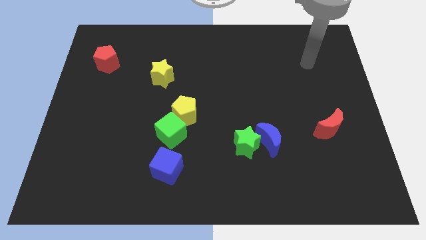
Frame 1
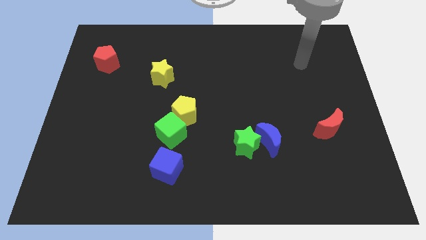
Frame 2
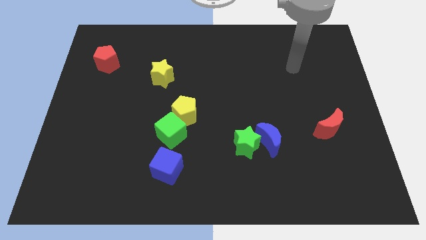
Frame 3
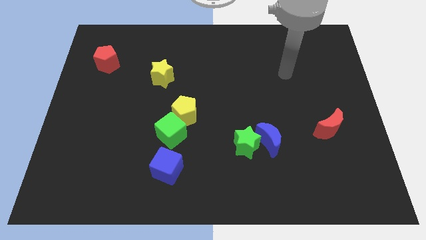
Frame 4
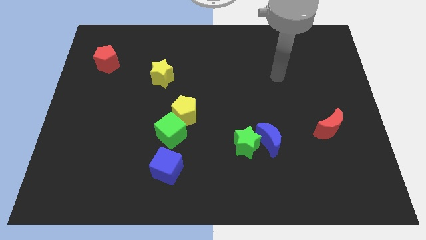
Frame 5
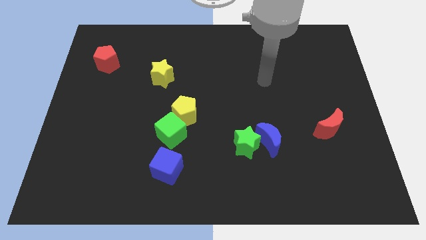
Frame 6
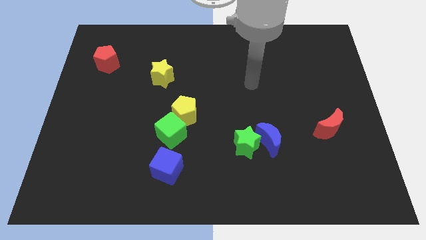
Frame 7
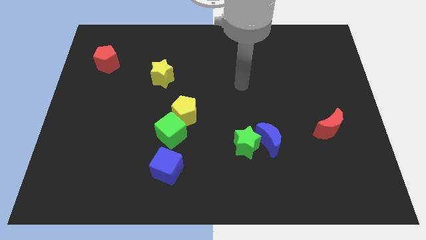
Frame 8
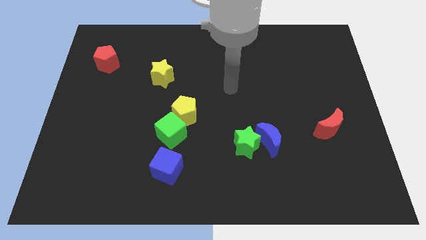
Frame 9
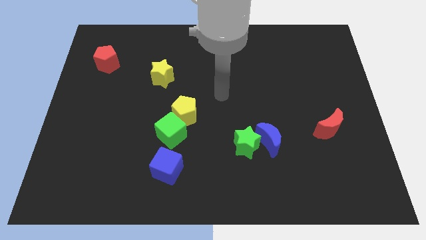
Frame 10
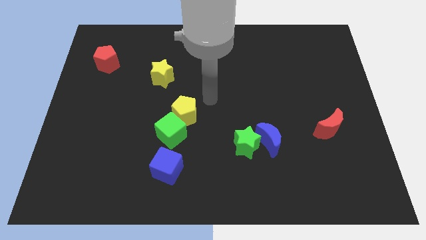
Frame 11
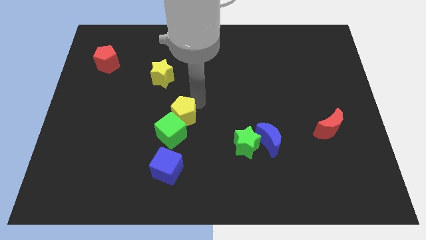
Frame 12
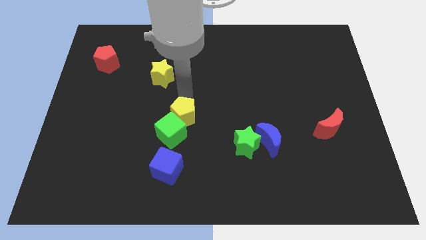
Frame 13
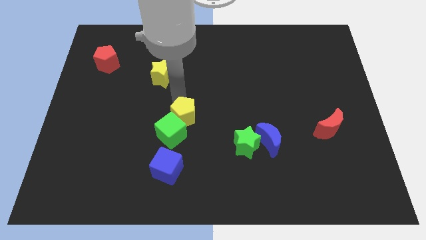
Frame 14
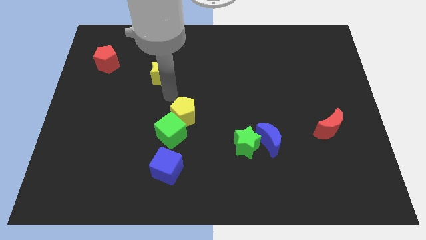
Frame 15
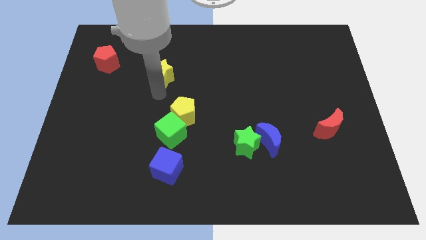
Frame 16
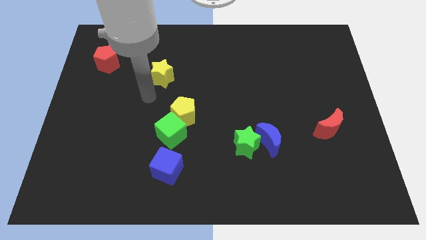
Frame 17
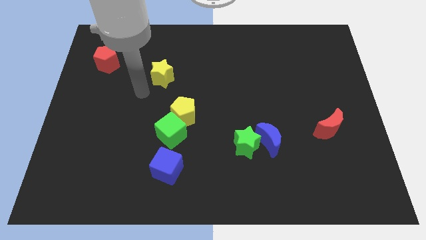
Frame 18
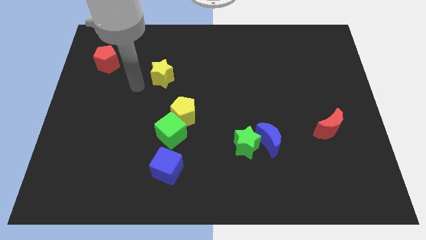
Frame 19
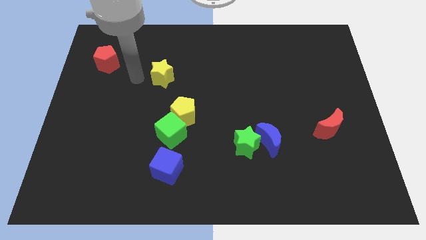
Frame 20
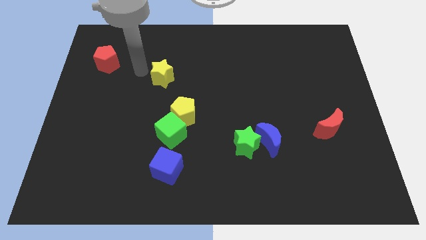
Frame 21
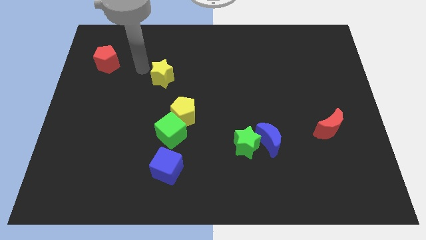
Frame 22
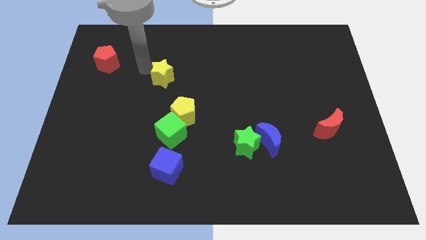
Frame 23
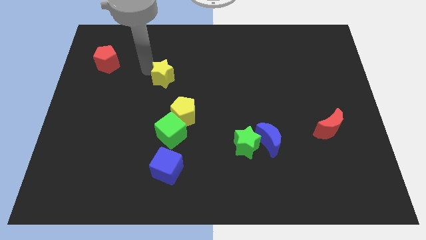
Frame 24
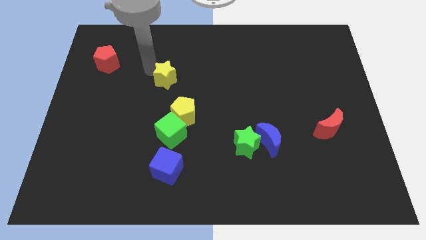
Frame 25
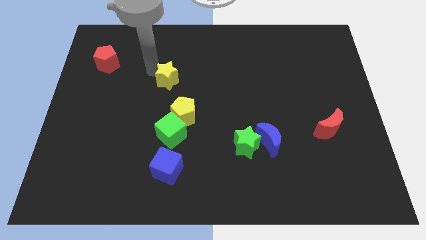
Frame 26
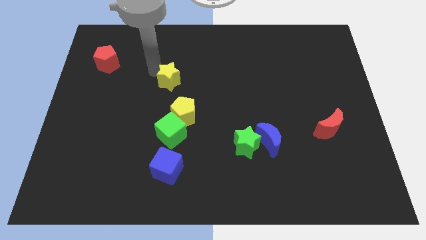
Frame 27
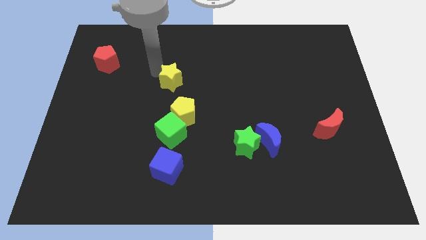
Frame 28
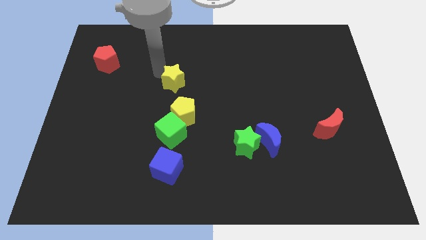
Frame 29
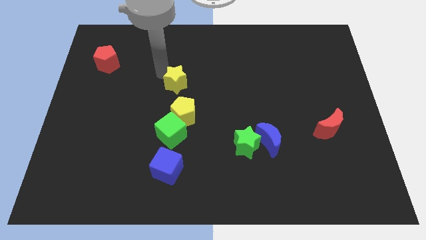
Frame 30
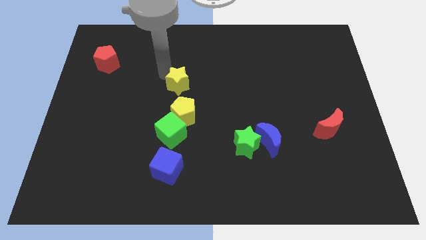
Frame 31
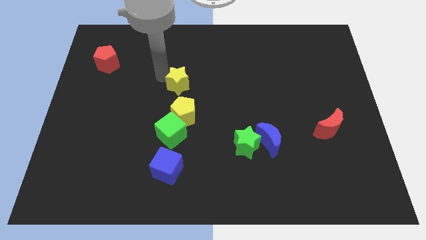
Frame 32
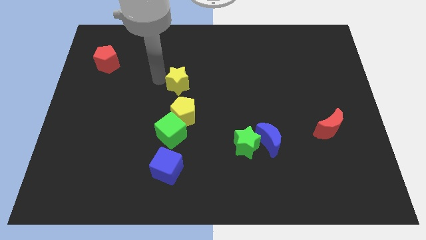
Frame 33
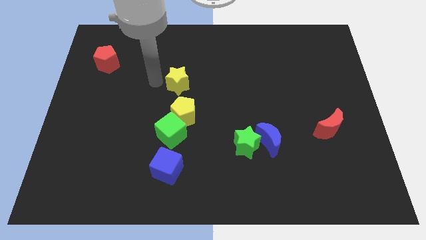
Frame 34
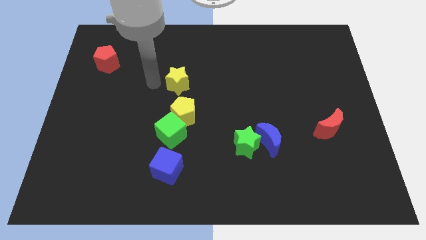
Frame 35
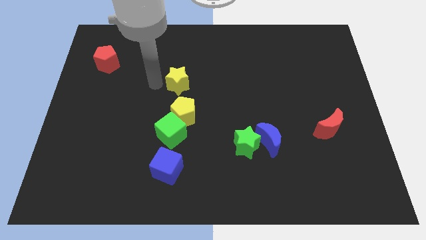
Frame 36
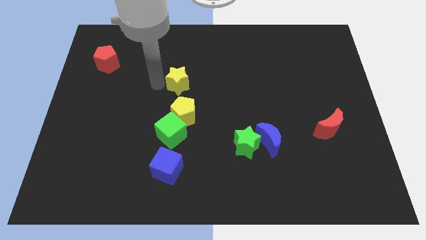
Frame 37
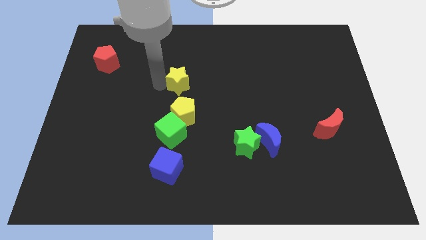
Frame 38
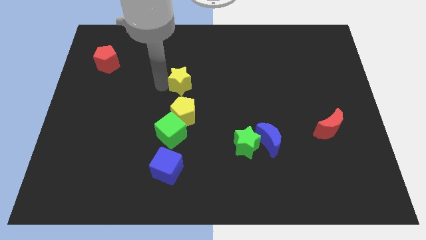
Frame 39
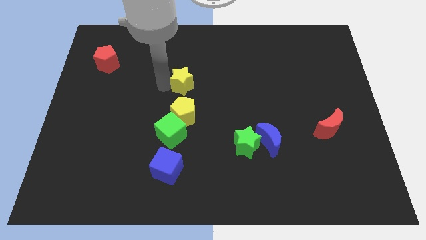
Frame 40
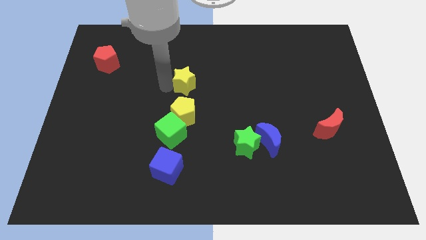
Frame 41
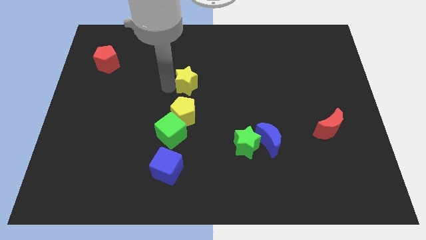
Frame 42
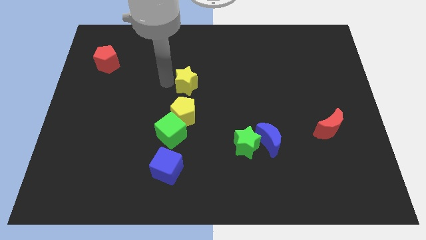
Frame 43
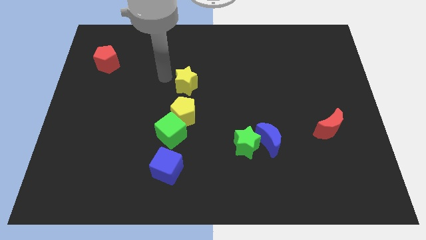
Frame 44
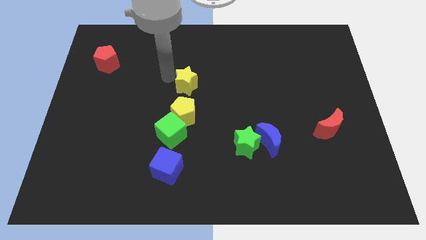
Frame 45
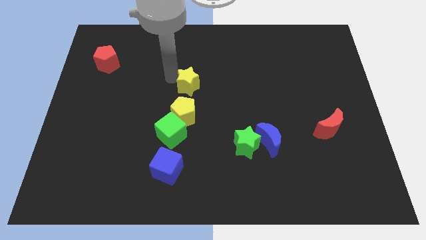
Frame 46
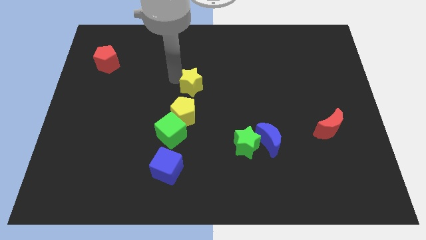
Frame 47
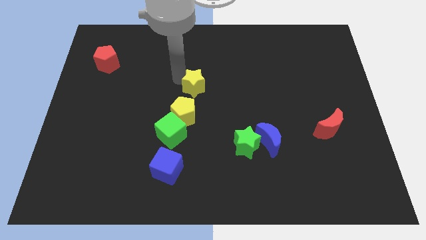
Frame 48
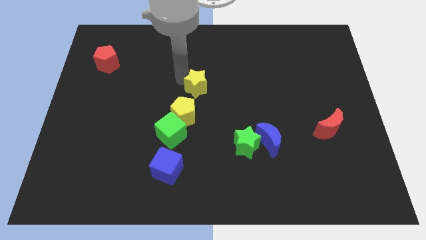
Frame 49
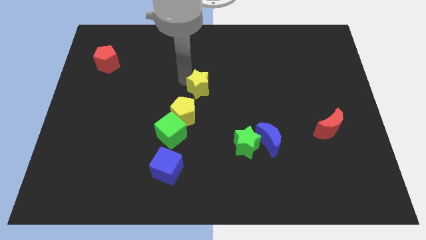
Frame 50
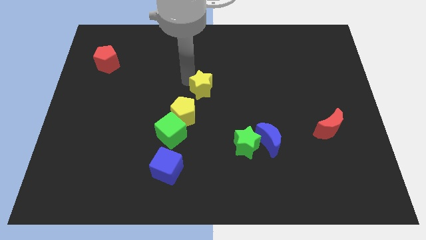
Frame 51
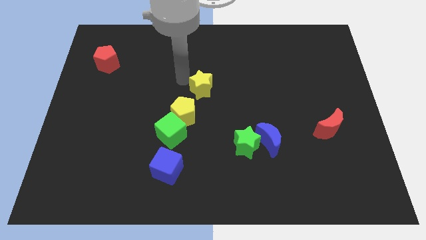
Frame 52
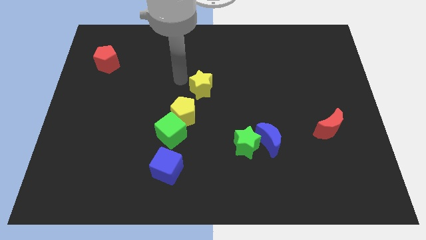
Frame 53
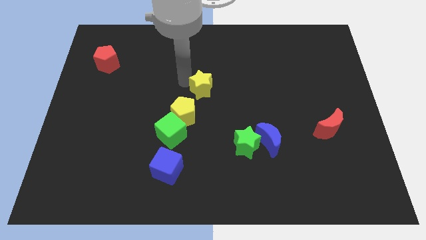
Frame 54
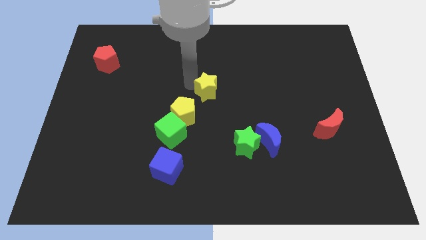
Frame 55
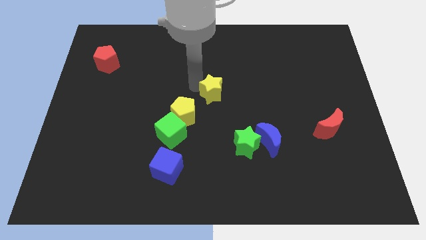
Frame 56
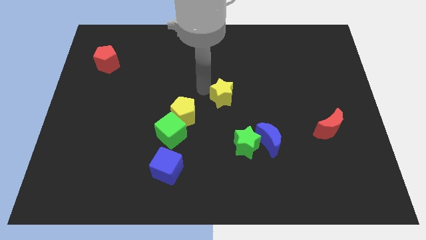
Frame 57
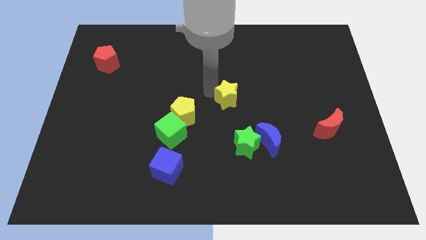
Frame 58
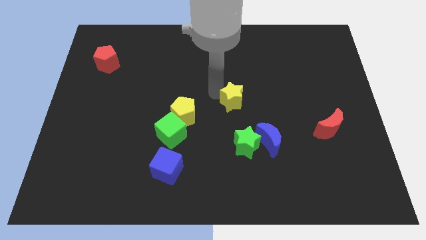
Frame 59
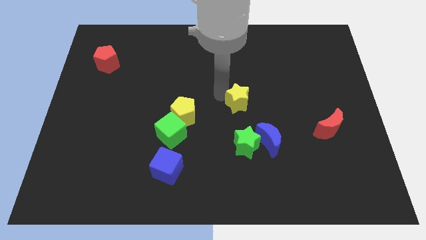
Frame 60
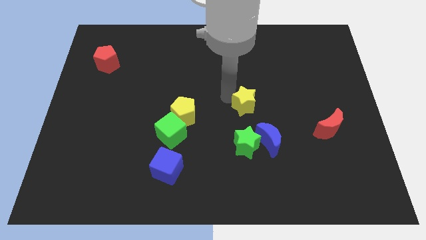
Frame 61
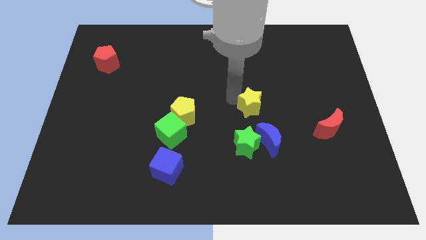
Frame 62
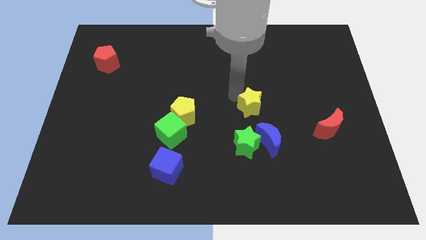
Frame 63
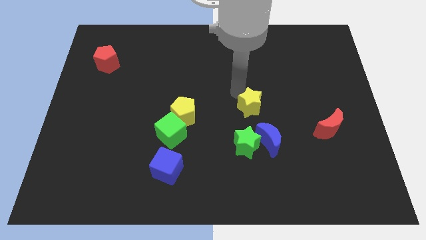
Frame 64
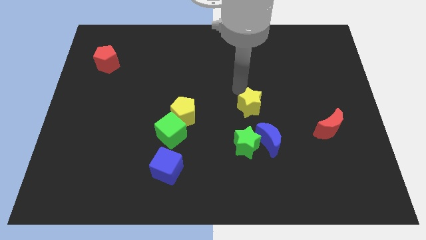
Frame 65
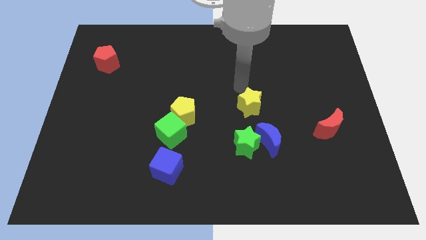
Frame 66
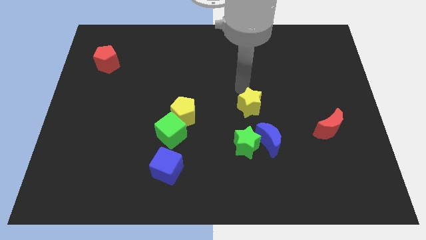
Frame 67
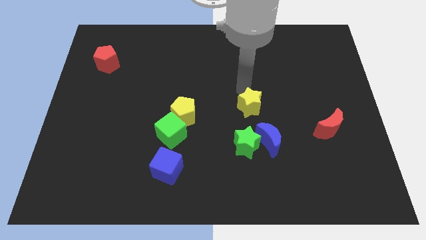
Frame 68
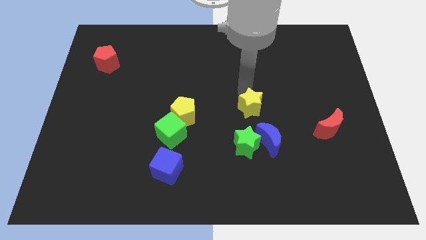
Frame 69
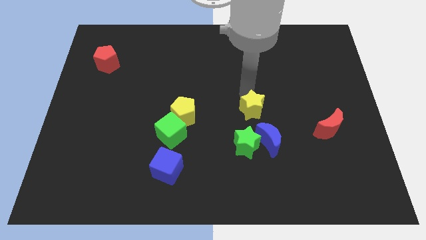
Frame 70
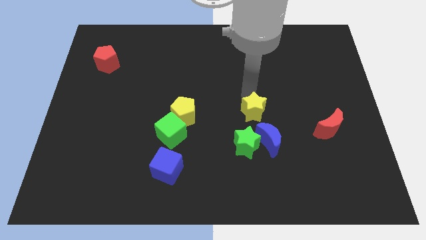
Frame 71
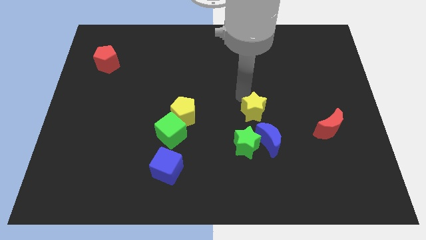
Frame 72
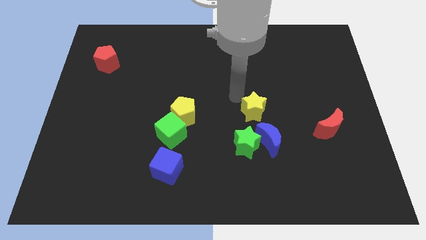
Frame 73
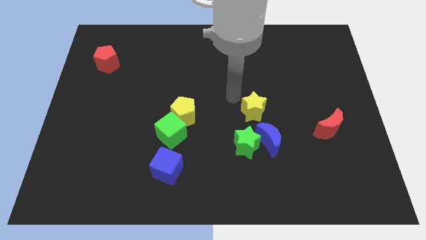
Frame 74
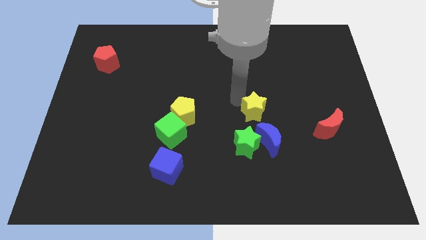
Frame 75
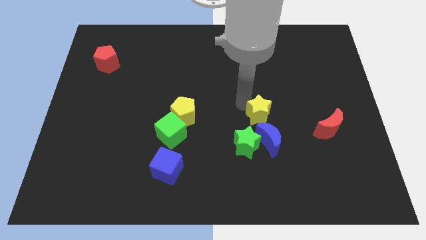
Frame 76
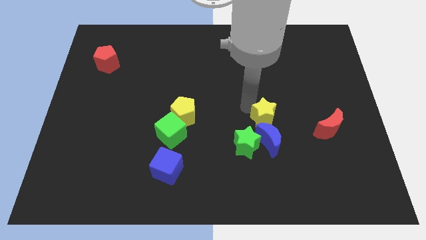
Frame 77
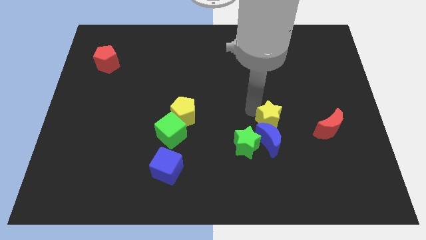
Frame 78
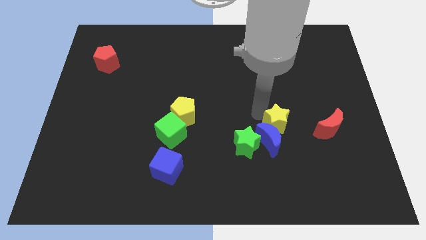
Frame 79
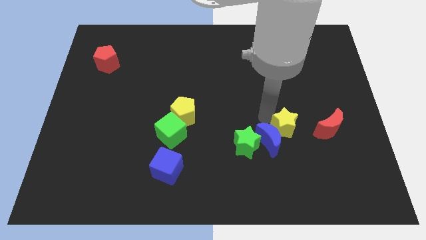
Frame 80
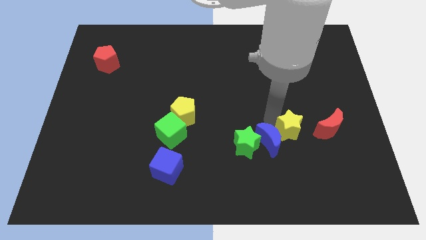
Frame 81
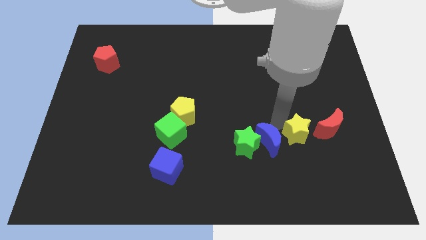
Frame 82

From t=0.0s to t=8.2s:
slide the yellow star to the bottom left of the red moon
